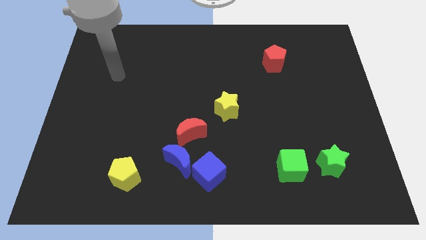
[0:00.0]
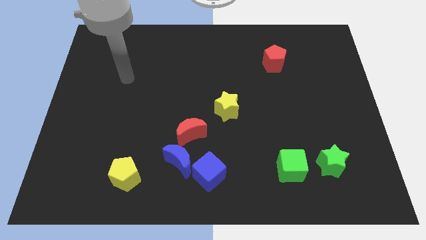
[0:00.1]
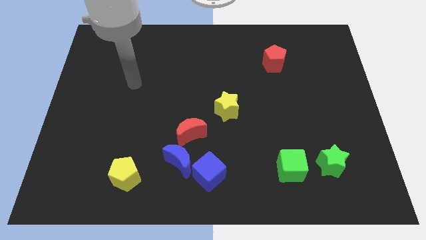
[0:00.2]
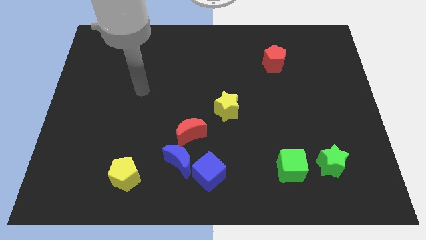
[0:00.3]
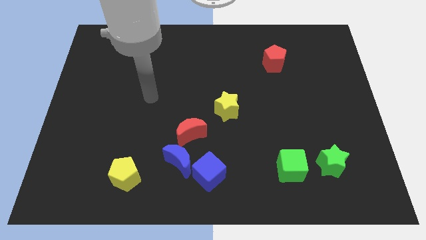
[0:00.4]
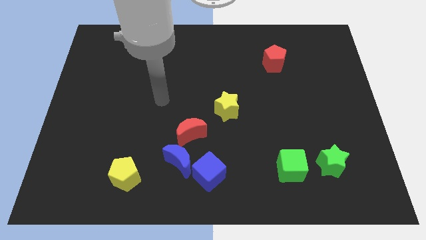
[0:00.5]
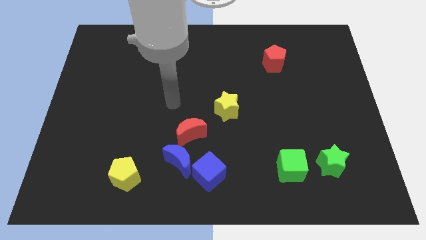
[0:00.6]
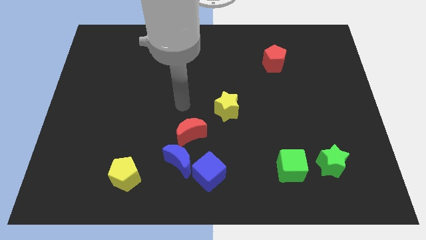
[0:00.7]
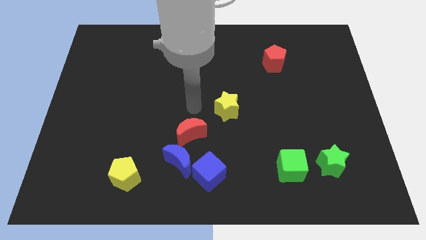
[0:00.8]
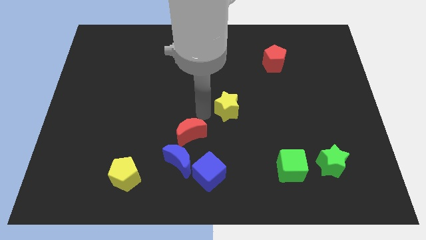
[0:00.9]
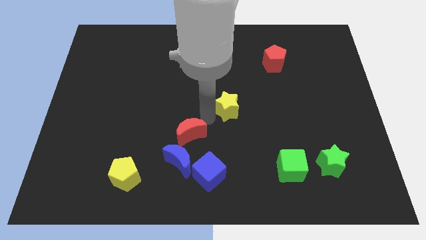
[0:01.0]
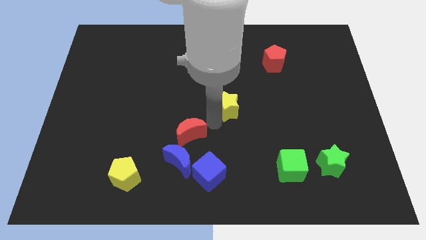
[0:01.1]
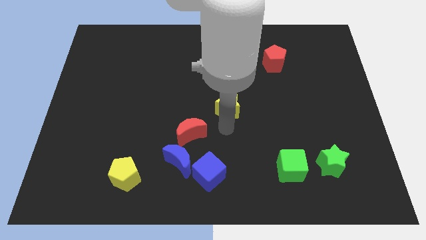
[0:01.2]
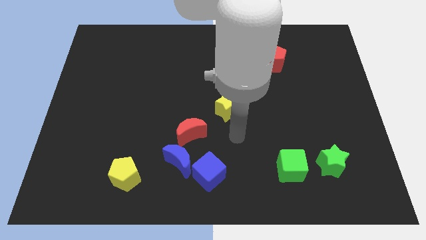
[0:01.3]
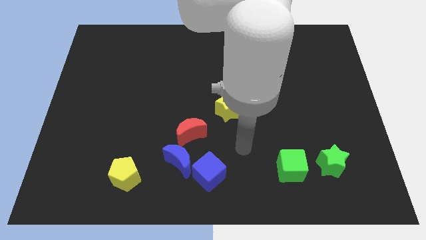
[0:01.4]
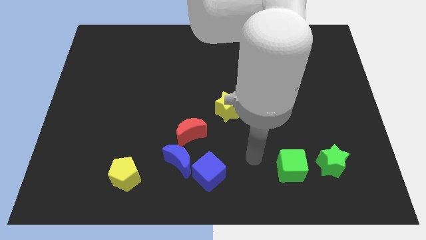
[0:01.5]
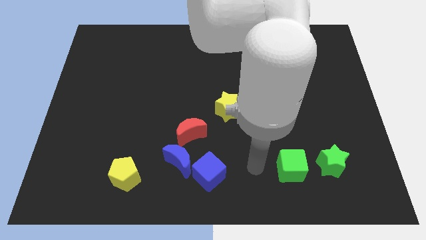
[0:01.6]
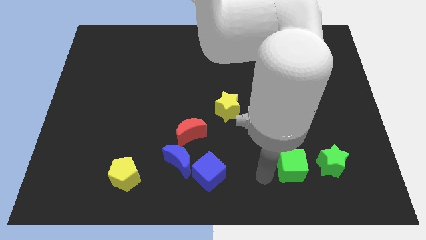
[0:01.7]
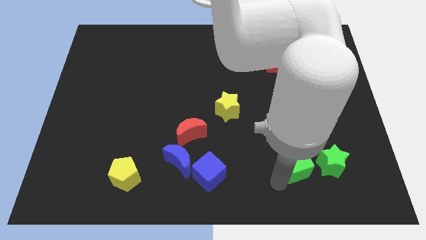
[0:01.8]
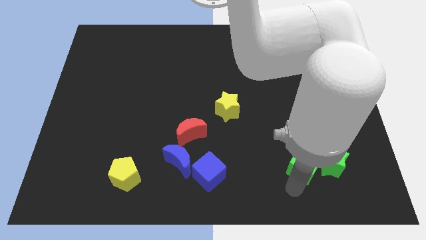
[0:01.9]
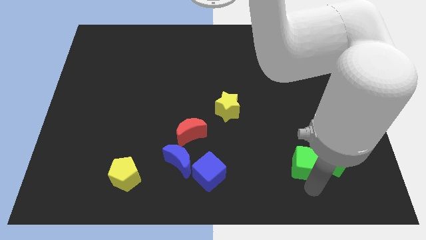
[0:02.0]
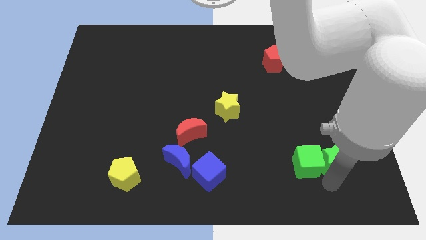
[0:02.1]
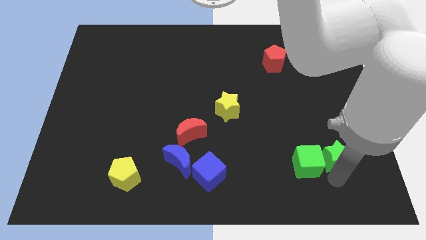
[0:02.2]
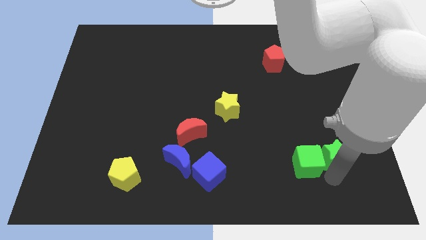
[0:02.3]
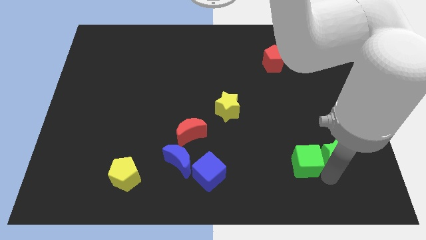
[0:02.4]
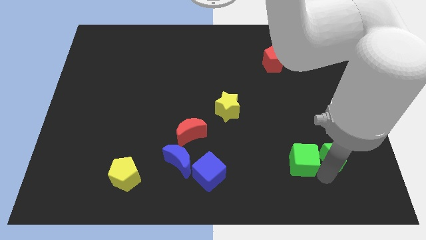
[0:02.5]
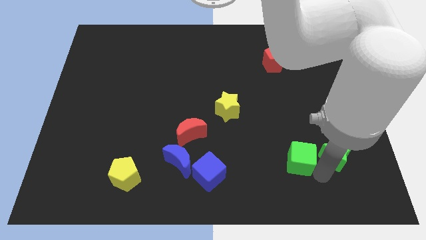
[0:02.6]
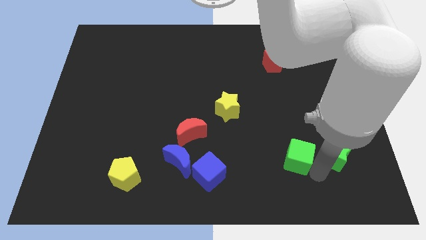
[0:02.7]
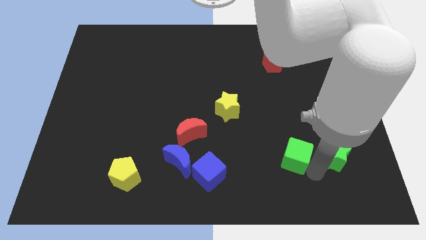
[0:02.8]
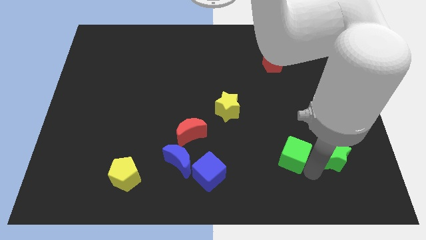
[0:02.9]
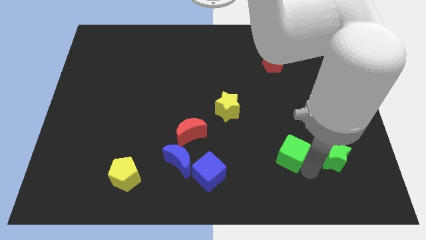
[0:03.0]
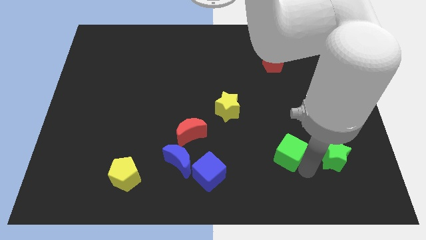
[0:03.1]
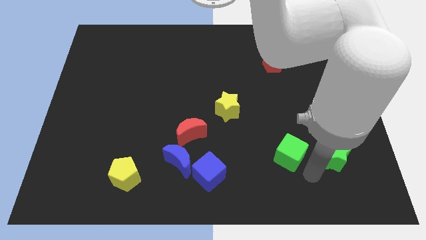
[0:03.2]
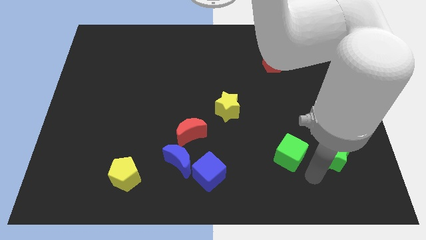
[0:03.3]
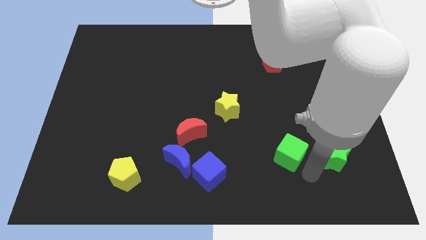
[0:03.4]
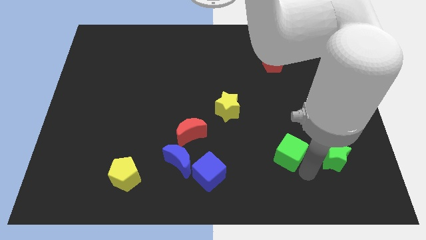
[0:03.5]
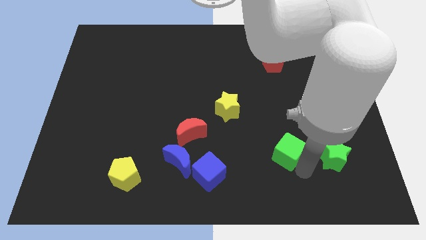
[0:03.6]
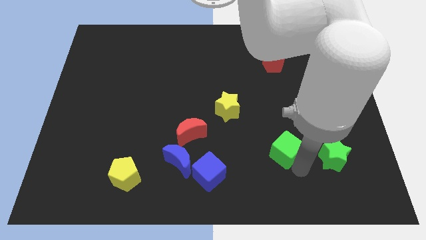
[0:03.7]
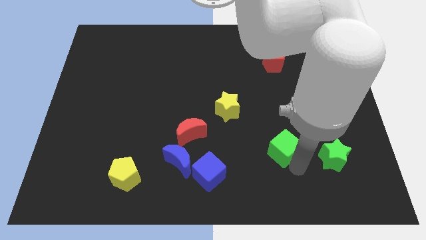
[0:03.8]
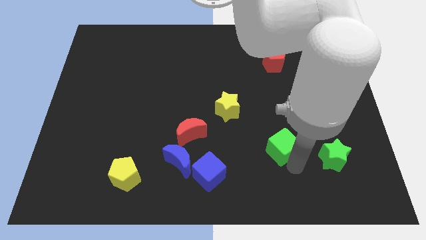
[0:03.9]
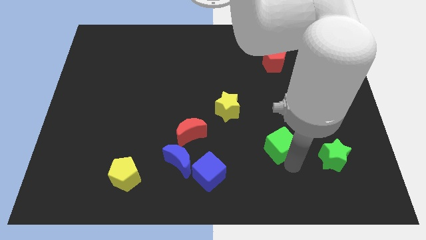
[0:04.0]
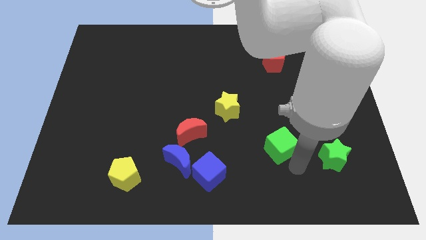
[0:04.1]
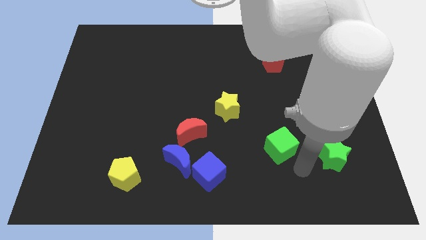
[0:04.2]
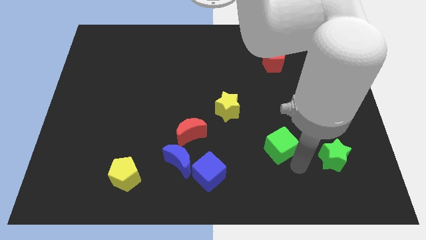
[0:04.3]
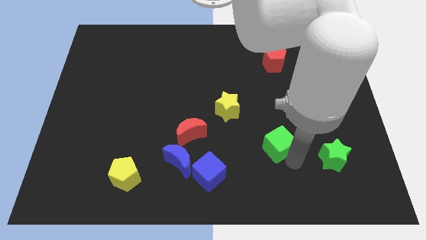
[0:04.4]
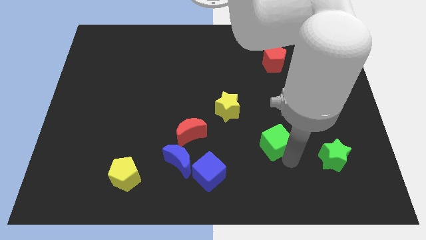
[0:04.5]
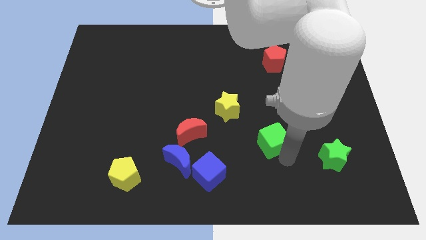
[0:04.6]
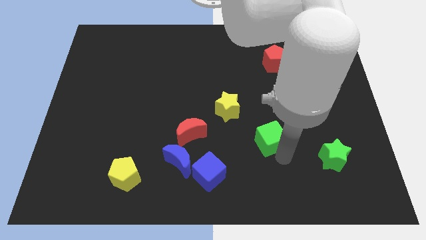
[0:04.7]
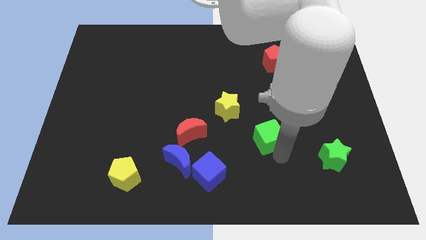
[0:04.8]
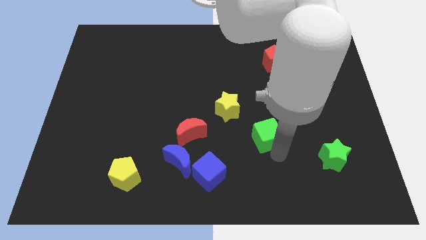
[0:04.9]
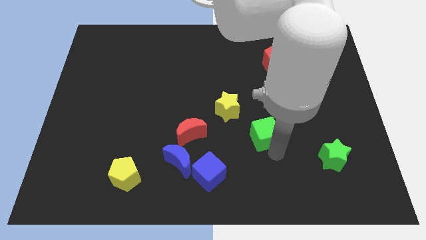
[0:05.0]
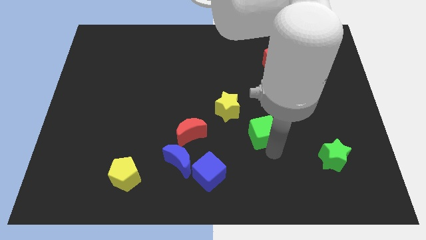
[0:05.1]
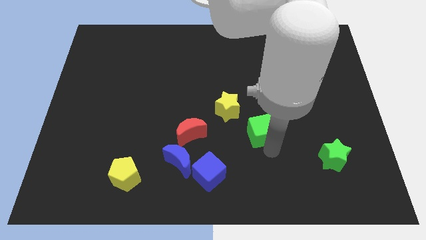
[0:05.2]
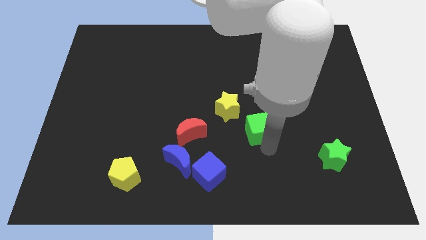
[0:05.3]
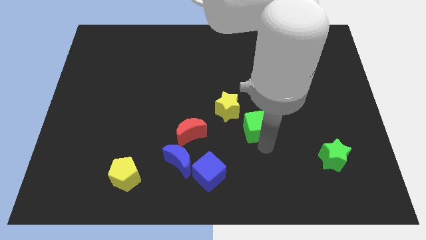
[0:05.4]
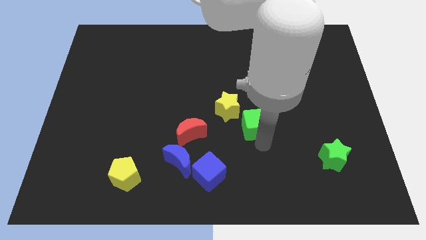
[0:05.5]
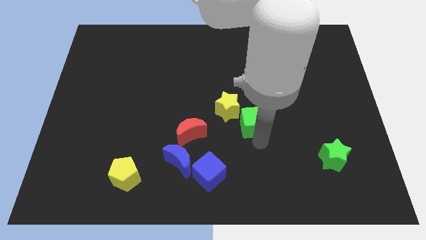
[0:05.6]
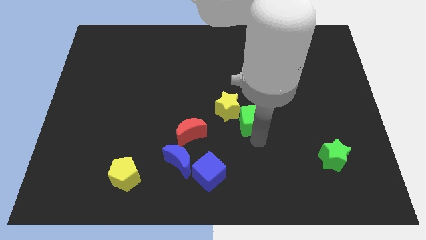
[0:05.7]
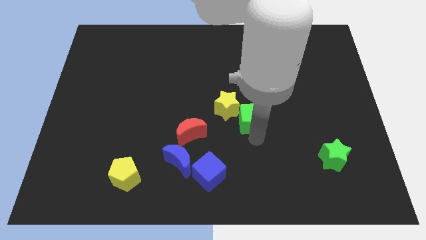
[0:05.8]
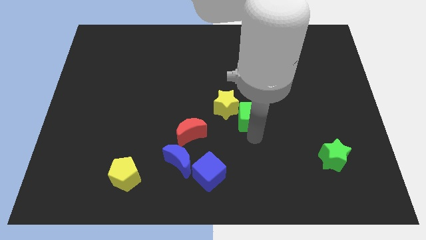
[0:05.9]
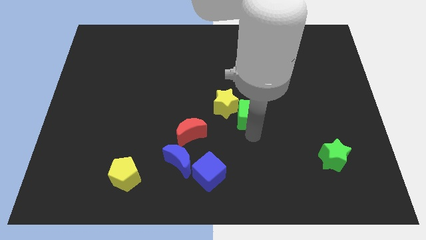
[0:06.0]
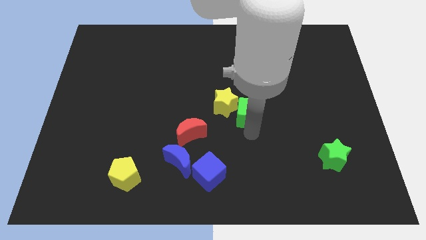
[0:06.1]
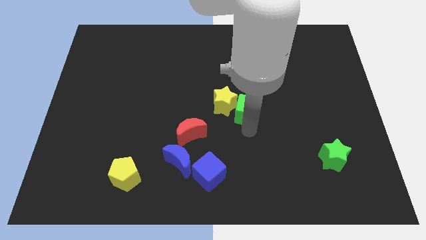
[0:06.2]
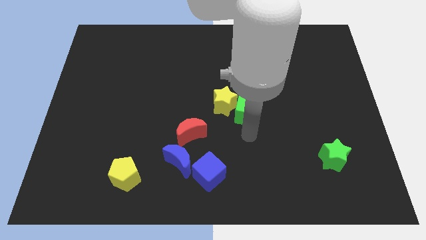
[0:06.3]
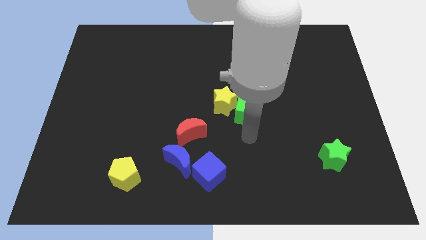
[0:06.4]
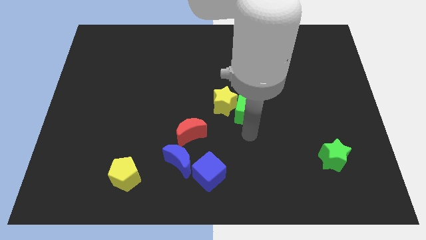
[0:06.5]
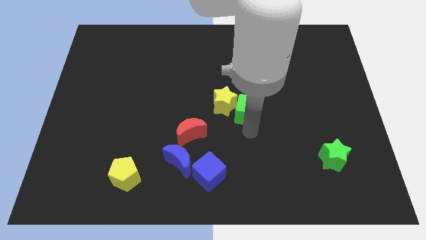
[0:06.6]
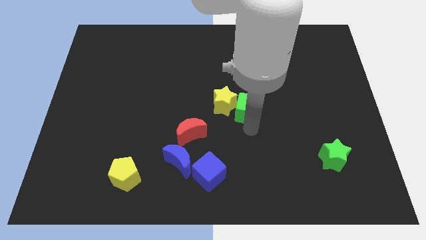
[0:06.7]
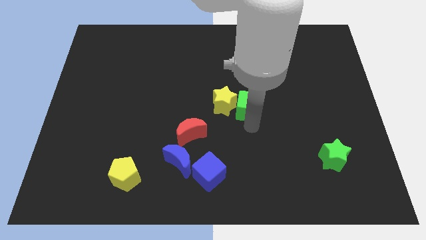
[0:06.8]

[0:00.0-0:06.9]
move the green cube to the top right of the yellow star

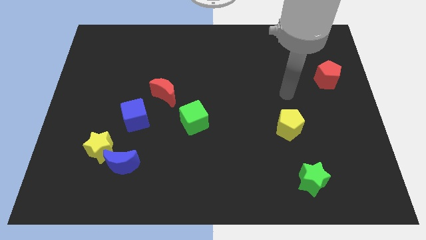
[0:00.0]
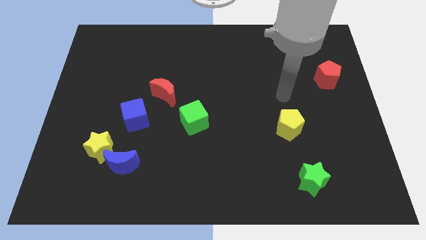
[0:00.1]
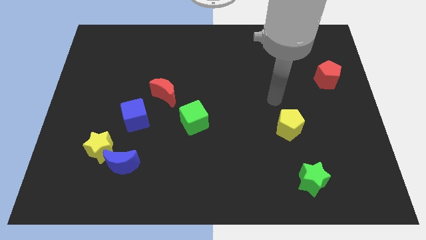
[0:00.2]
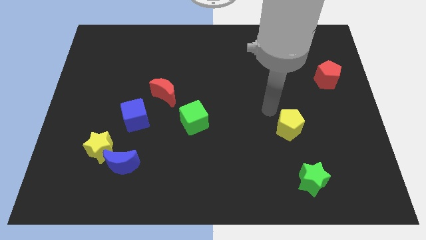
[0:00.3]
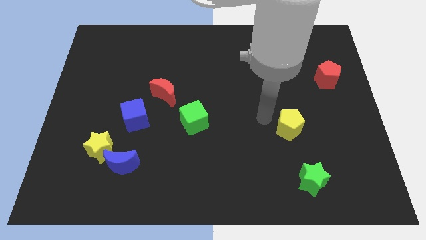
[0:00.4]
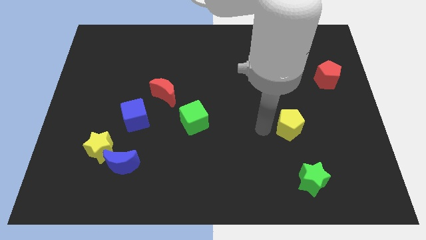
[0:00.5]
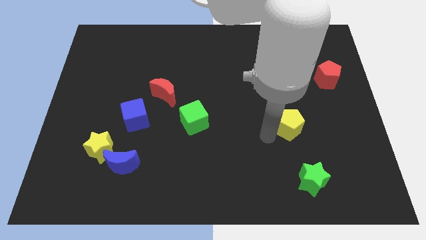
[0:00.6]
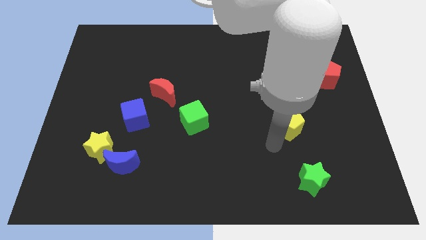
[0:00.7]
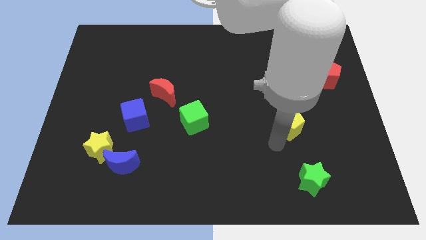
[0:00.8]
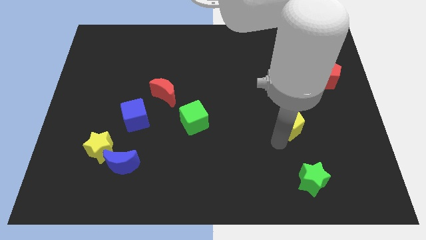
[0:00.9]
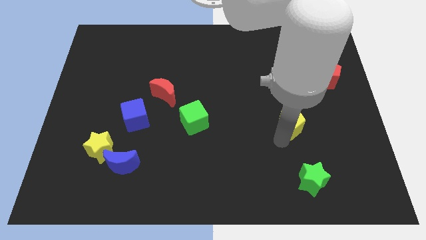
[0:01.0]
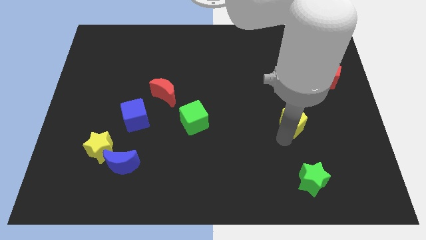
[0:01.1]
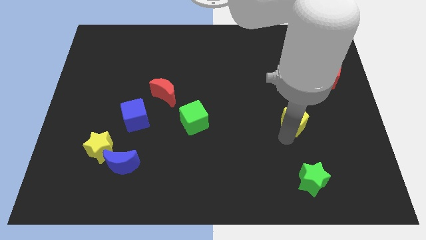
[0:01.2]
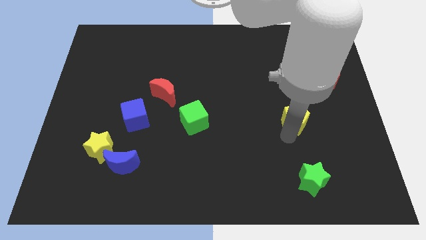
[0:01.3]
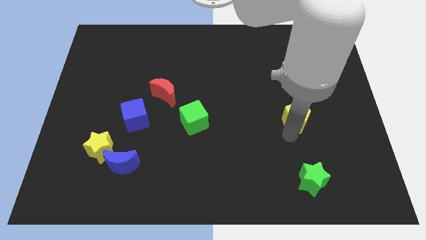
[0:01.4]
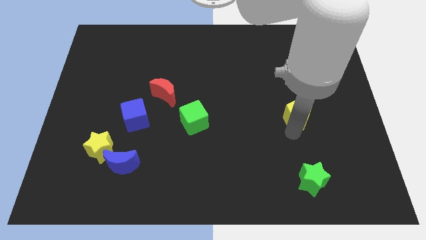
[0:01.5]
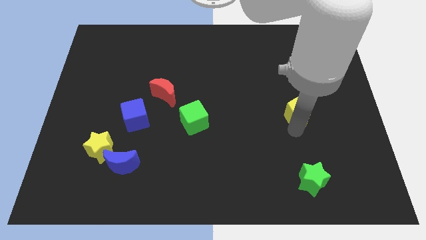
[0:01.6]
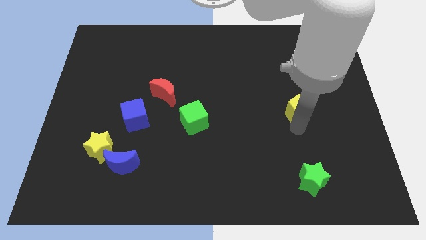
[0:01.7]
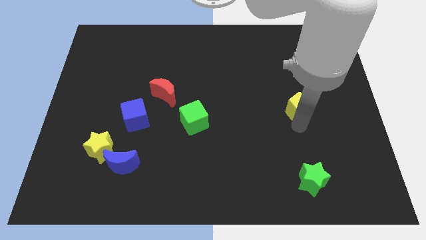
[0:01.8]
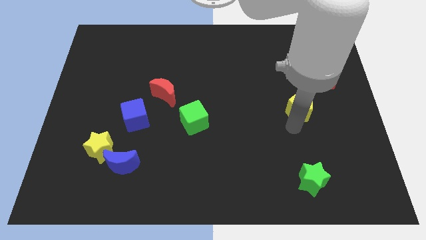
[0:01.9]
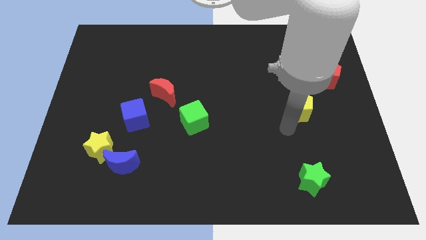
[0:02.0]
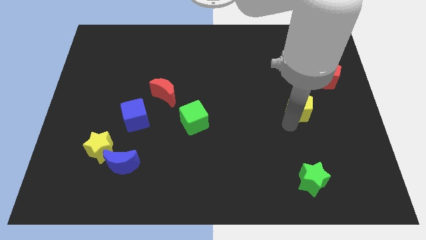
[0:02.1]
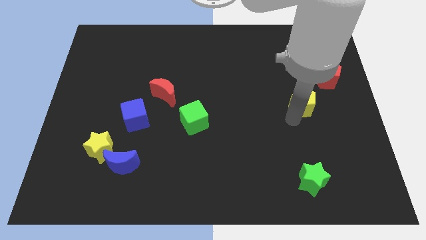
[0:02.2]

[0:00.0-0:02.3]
slide the yellow pentagon diagonally down and to the left of the red pentagon
